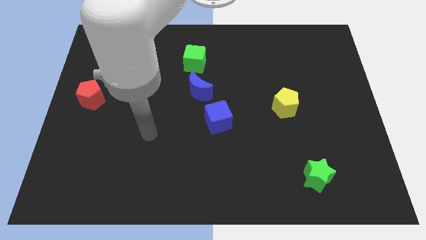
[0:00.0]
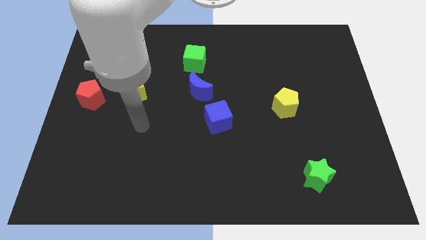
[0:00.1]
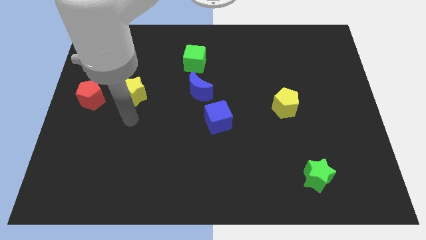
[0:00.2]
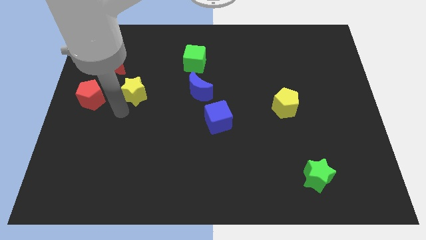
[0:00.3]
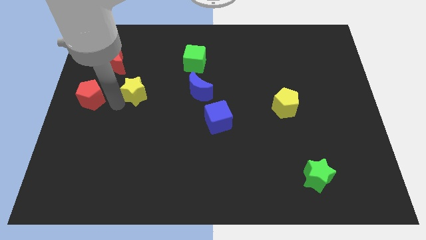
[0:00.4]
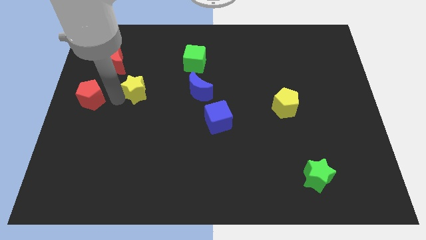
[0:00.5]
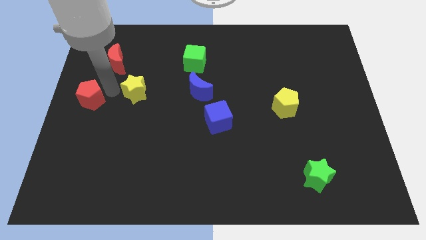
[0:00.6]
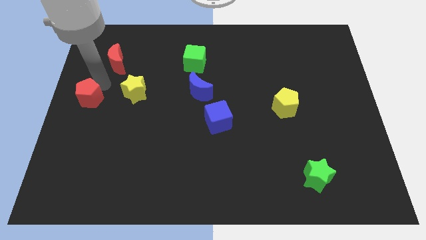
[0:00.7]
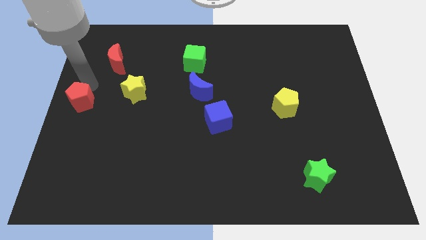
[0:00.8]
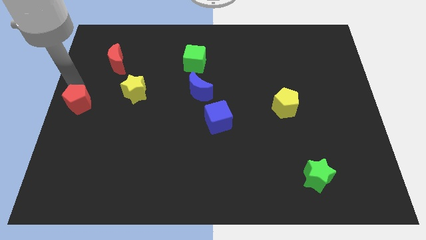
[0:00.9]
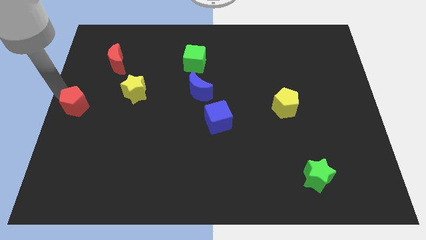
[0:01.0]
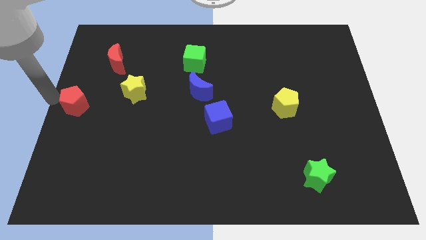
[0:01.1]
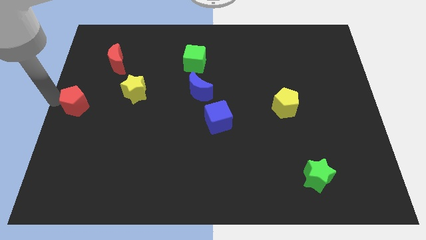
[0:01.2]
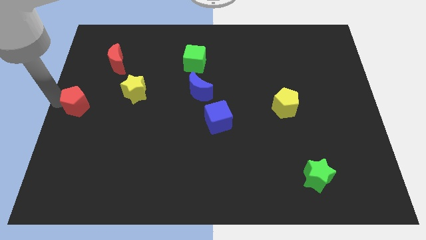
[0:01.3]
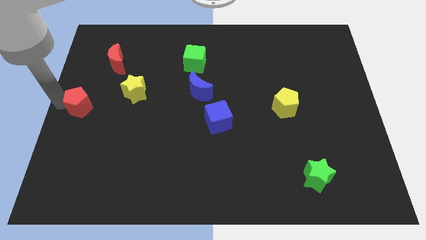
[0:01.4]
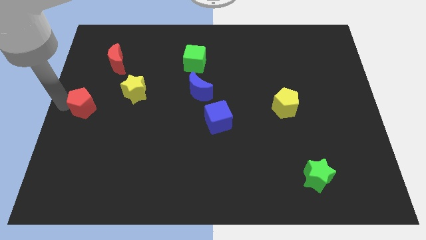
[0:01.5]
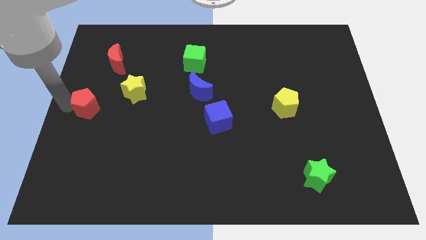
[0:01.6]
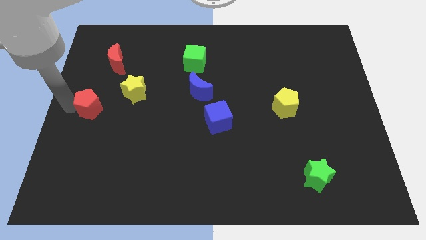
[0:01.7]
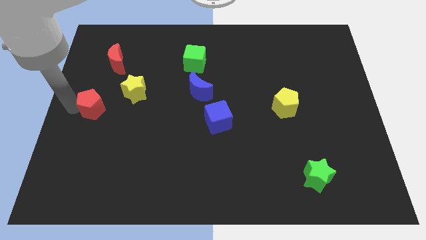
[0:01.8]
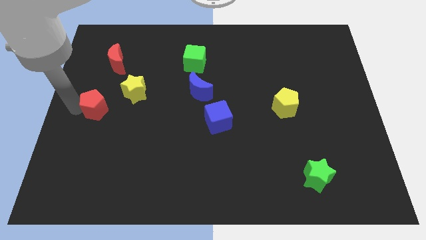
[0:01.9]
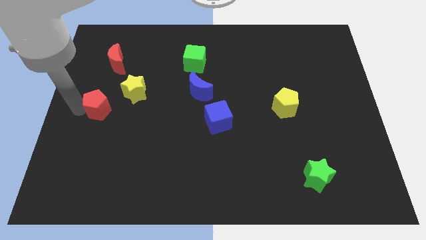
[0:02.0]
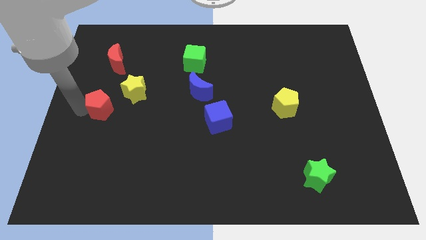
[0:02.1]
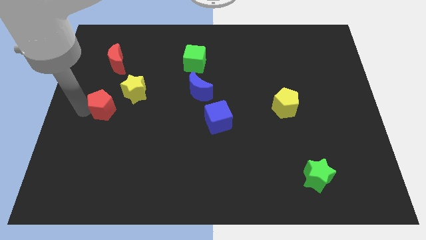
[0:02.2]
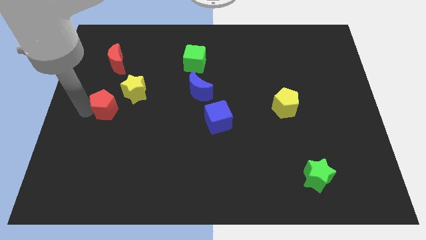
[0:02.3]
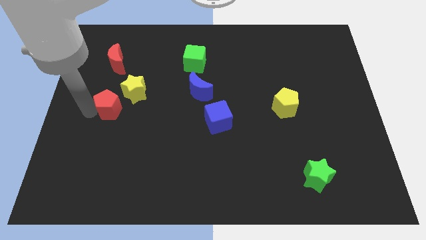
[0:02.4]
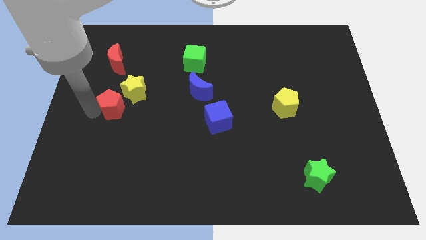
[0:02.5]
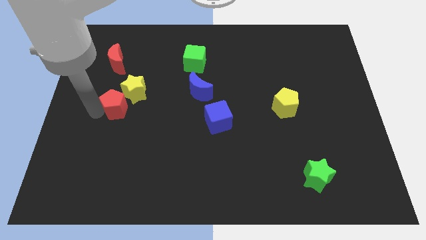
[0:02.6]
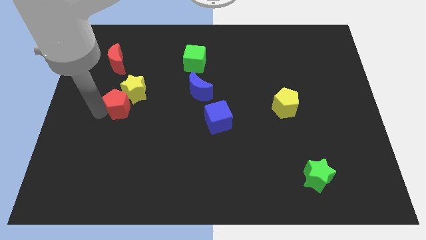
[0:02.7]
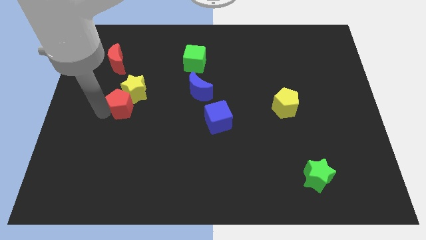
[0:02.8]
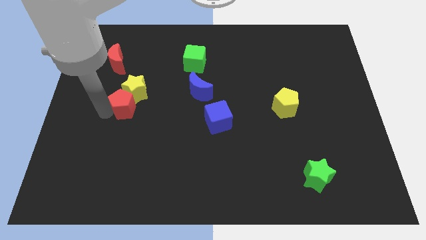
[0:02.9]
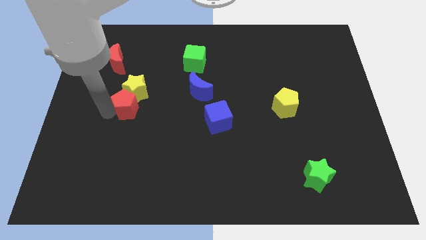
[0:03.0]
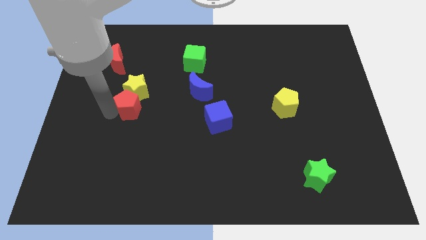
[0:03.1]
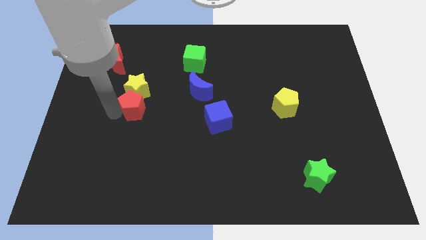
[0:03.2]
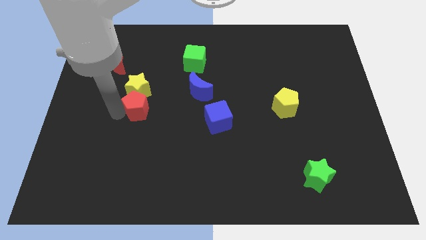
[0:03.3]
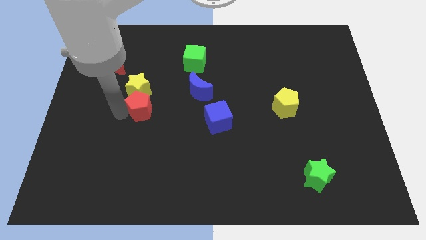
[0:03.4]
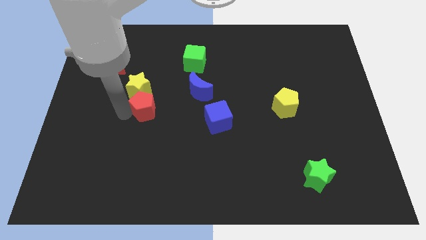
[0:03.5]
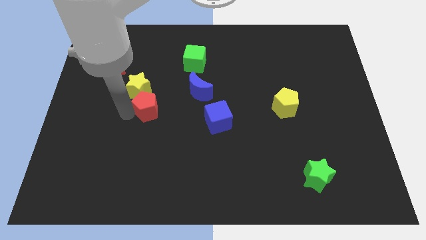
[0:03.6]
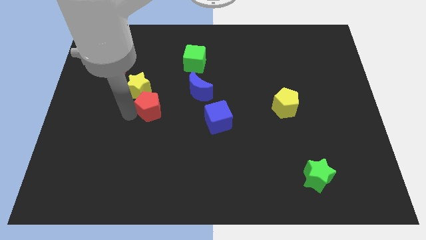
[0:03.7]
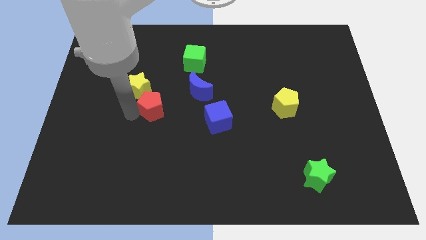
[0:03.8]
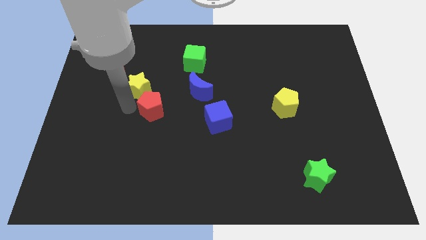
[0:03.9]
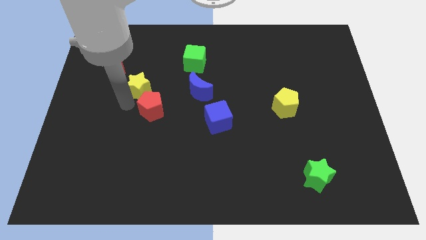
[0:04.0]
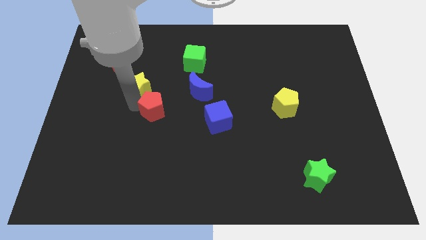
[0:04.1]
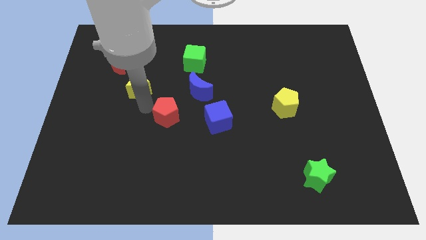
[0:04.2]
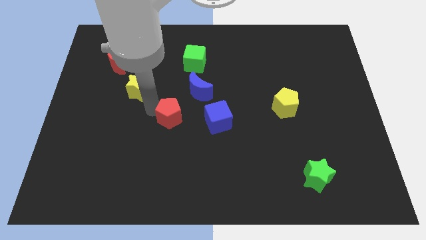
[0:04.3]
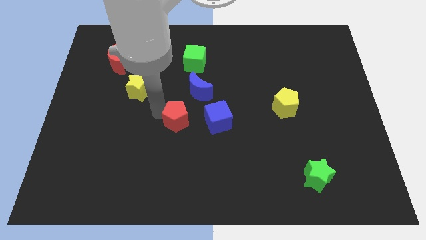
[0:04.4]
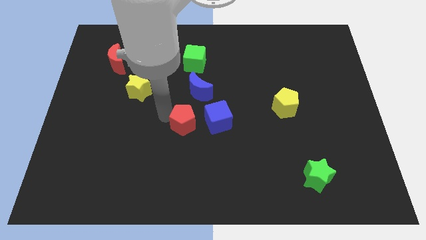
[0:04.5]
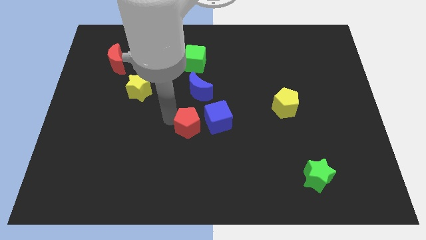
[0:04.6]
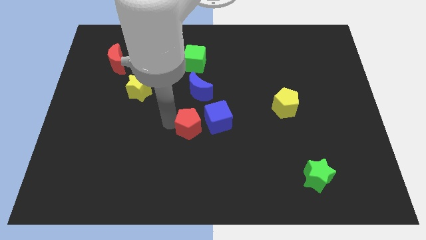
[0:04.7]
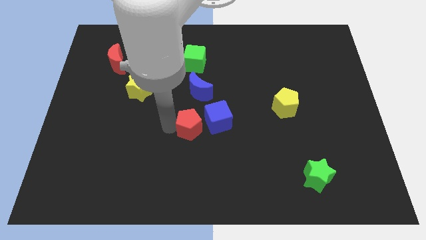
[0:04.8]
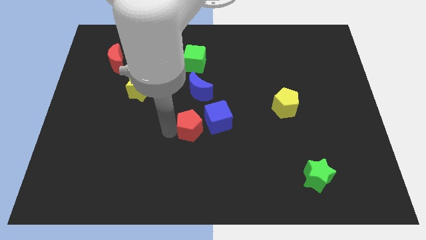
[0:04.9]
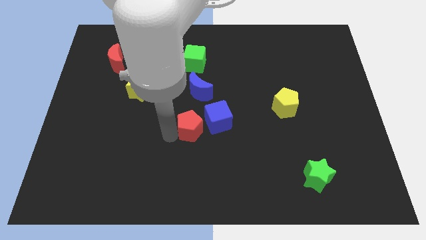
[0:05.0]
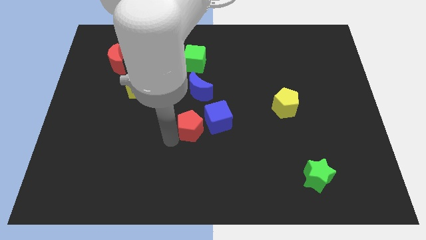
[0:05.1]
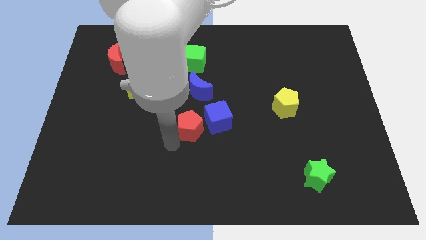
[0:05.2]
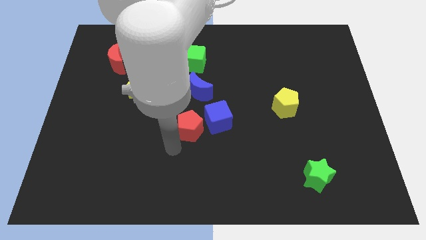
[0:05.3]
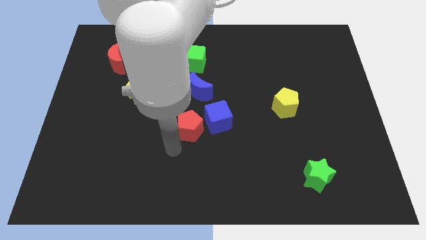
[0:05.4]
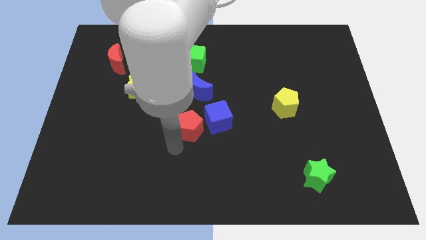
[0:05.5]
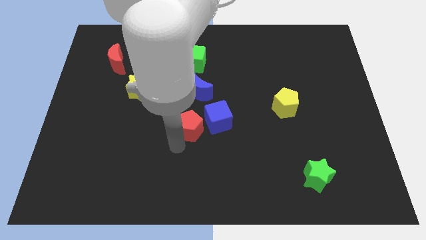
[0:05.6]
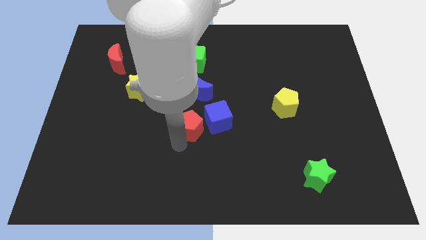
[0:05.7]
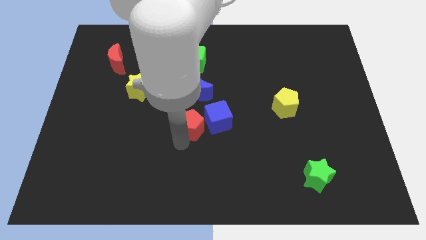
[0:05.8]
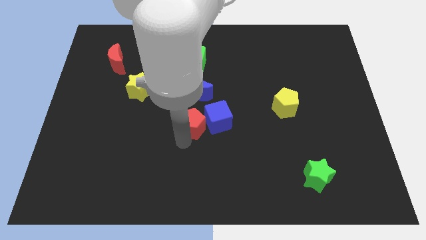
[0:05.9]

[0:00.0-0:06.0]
put the red pentagon close to the blue cube

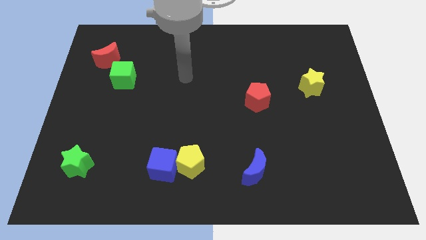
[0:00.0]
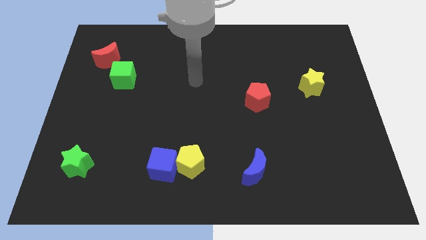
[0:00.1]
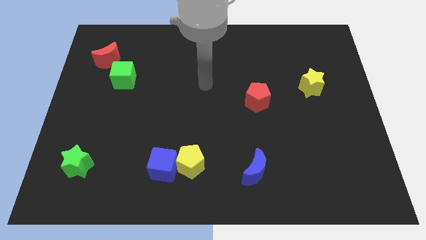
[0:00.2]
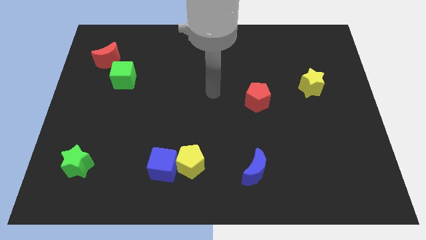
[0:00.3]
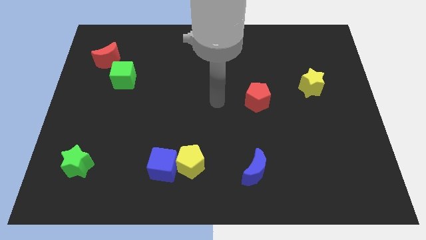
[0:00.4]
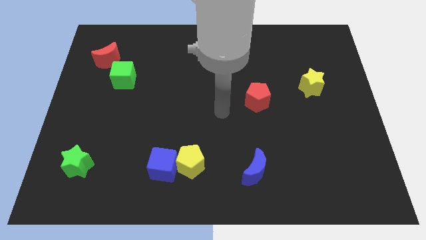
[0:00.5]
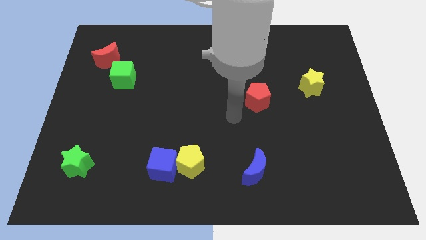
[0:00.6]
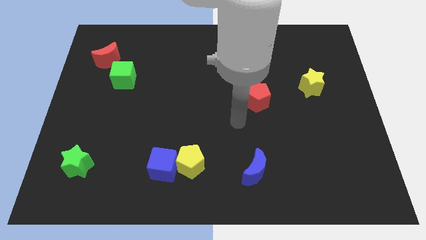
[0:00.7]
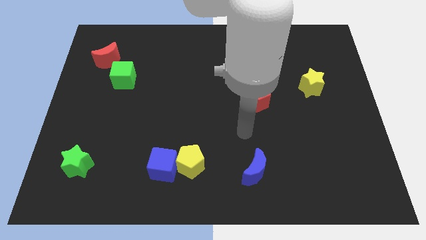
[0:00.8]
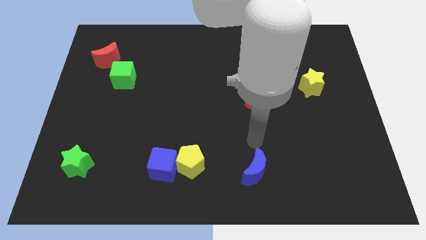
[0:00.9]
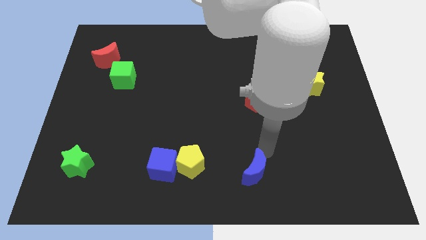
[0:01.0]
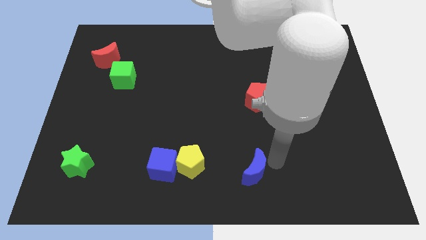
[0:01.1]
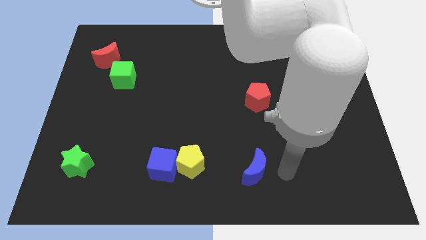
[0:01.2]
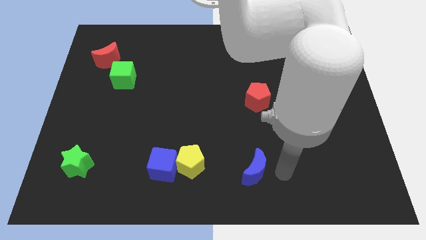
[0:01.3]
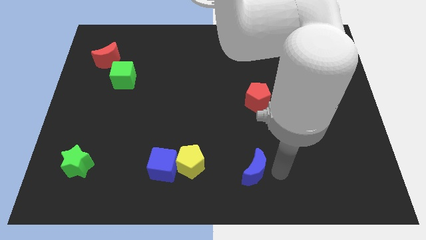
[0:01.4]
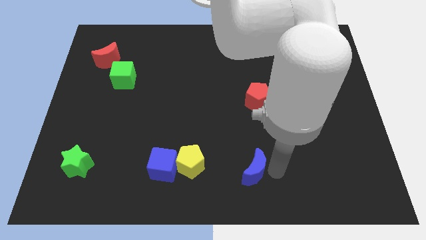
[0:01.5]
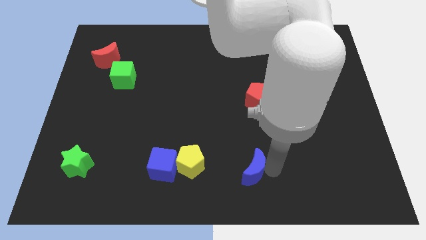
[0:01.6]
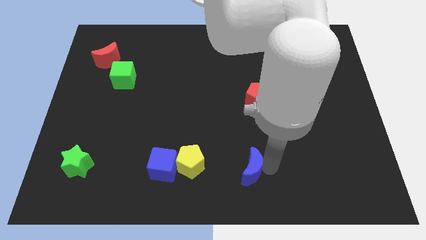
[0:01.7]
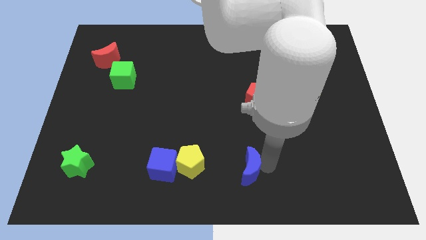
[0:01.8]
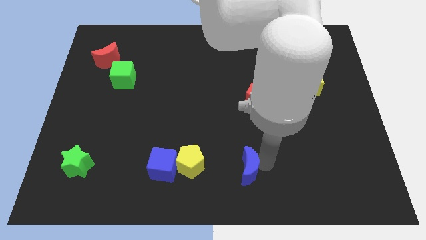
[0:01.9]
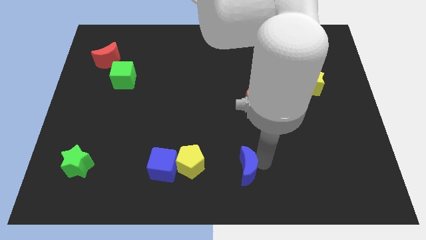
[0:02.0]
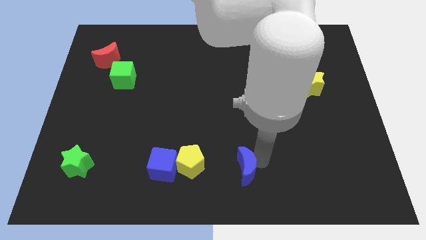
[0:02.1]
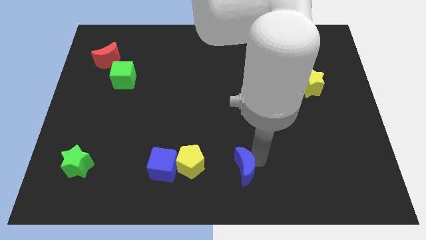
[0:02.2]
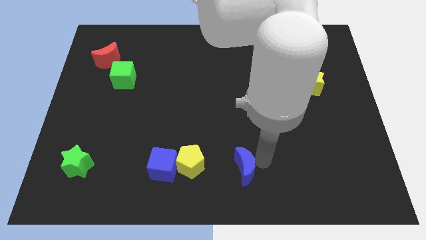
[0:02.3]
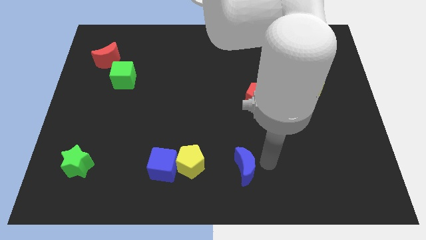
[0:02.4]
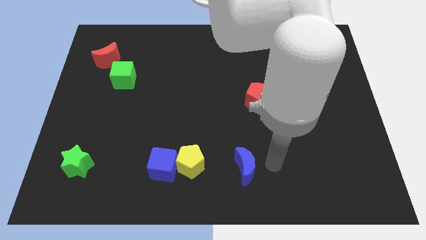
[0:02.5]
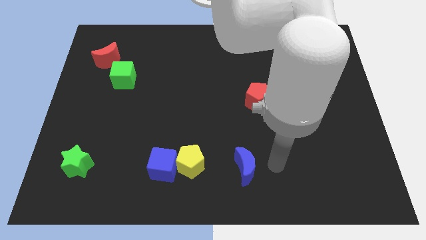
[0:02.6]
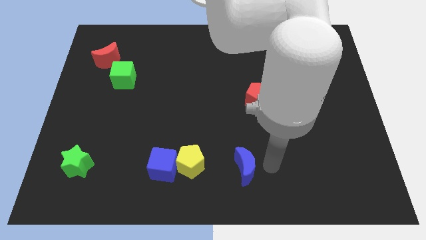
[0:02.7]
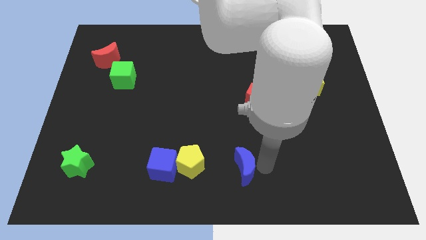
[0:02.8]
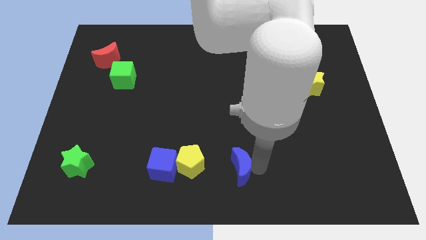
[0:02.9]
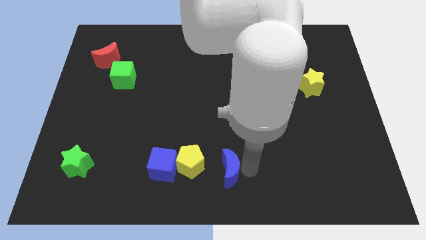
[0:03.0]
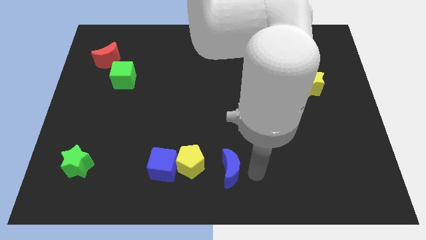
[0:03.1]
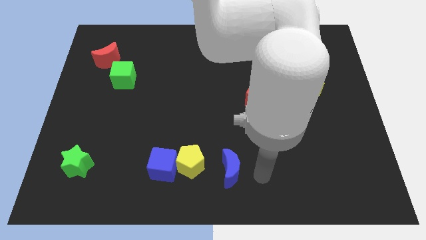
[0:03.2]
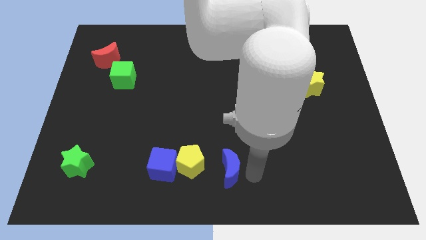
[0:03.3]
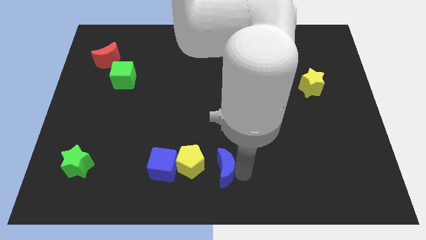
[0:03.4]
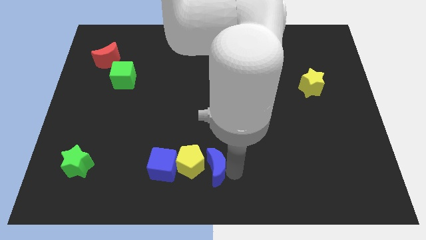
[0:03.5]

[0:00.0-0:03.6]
slide the blue moon close to the yellow pentagon
